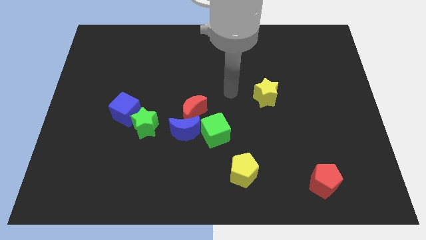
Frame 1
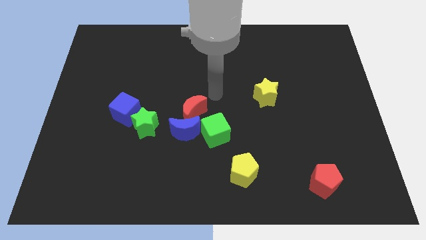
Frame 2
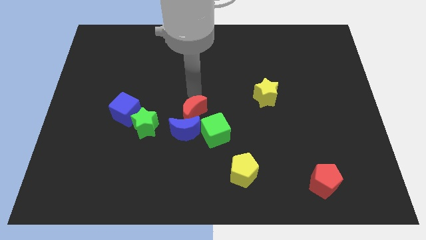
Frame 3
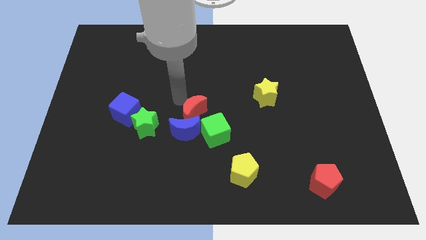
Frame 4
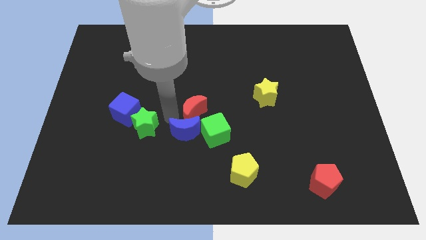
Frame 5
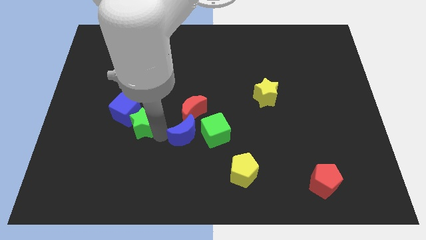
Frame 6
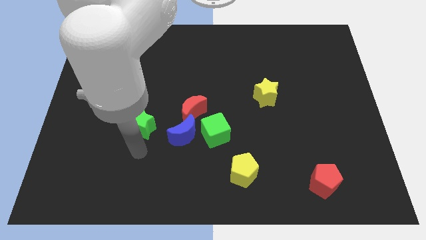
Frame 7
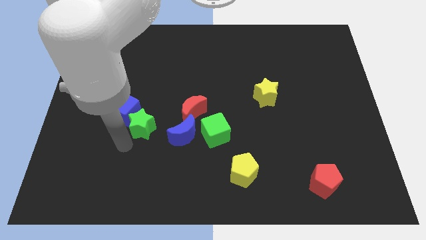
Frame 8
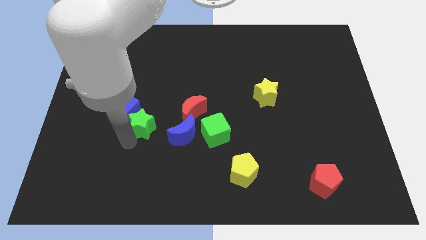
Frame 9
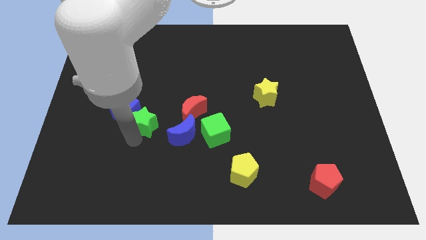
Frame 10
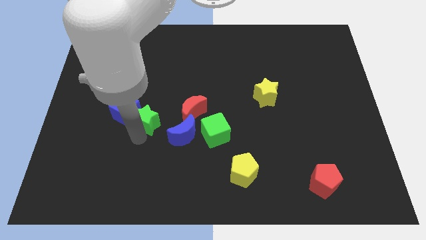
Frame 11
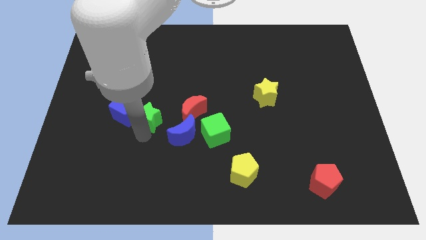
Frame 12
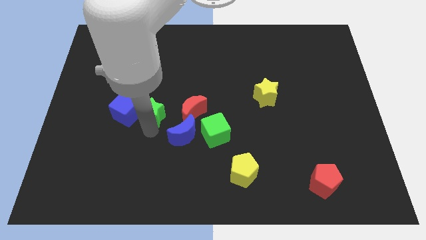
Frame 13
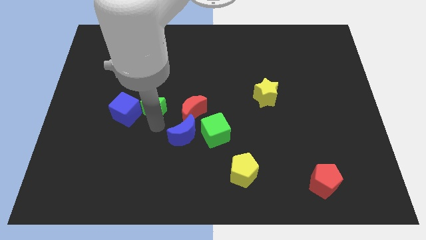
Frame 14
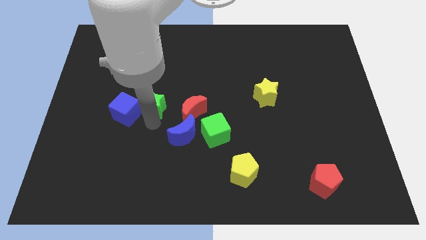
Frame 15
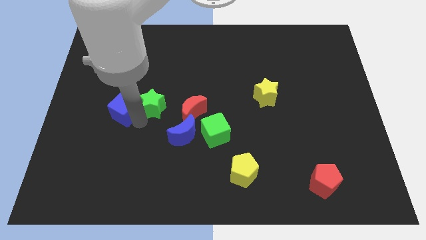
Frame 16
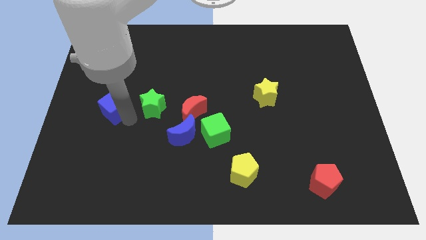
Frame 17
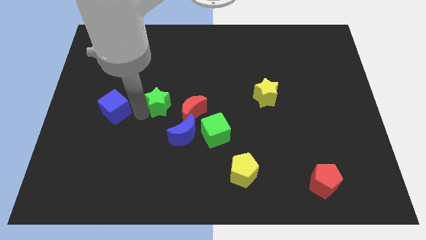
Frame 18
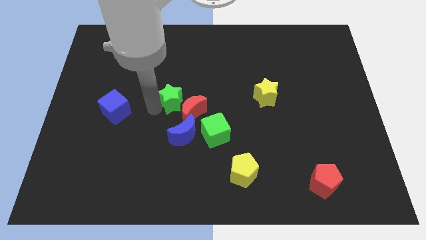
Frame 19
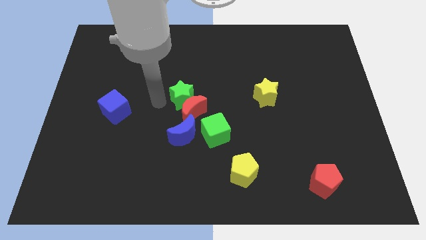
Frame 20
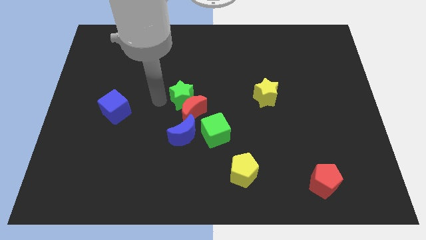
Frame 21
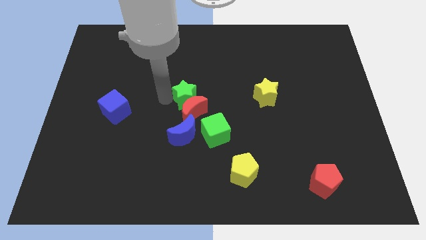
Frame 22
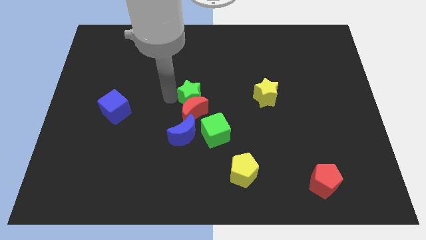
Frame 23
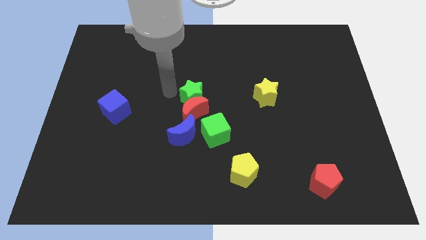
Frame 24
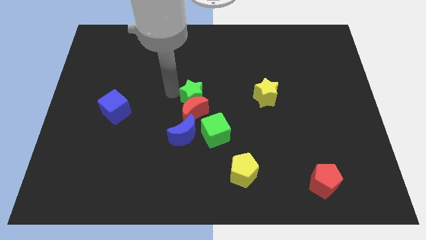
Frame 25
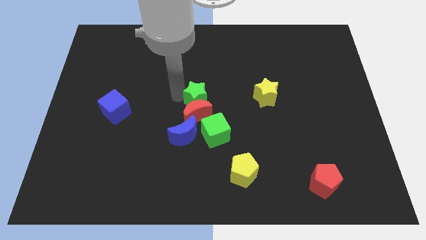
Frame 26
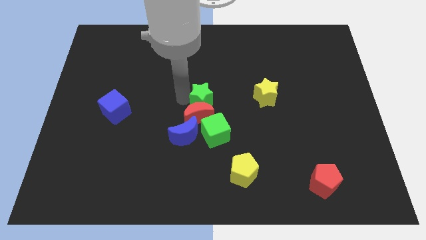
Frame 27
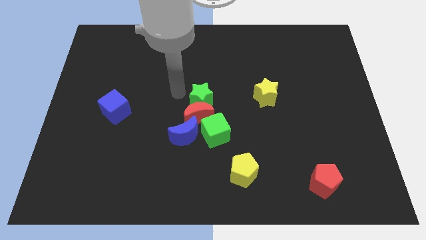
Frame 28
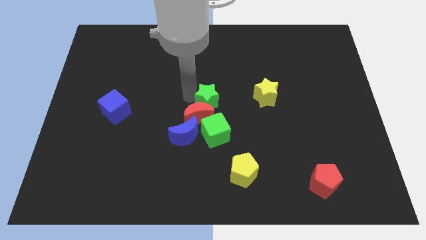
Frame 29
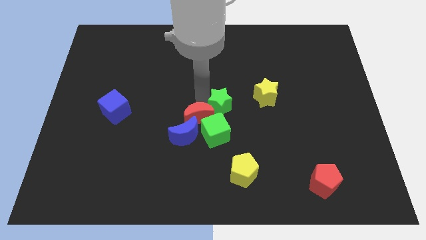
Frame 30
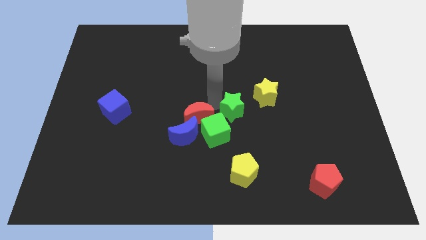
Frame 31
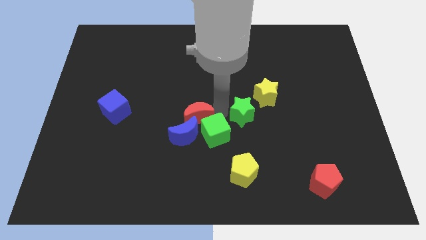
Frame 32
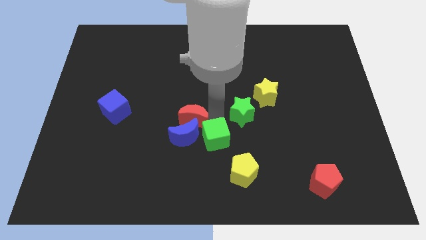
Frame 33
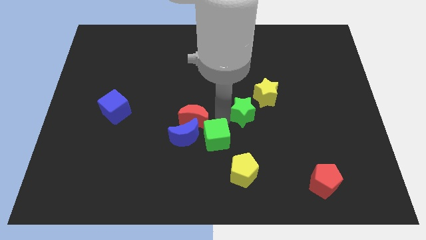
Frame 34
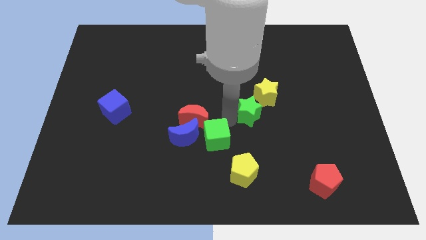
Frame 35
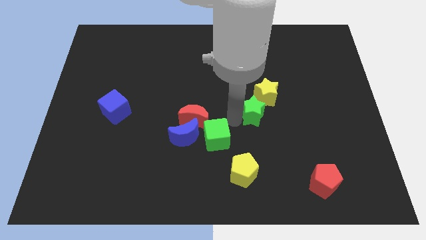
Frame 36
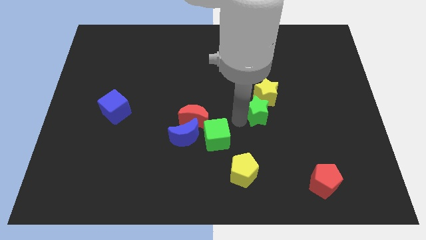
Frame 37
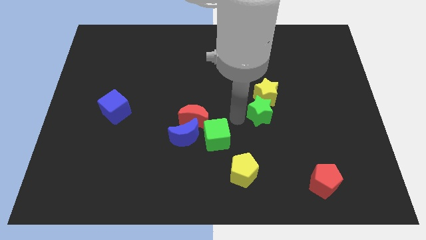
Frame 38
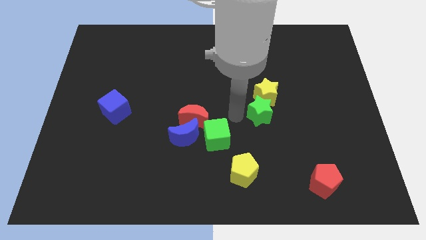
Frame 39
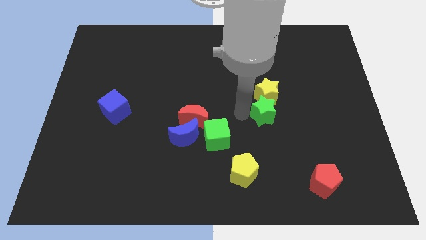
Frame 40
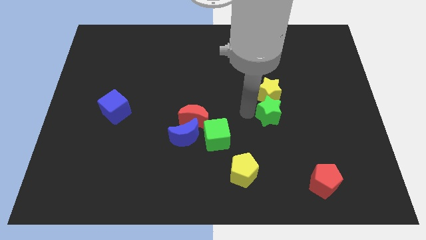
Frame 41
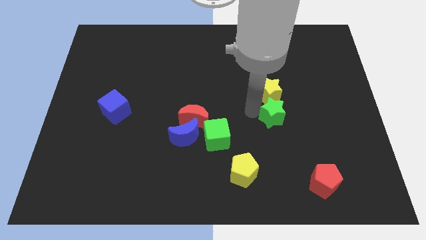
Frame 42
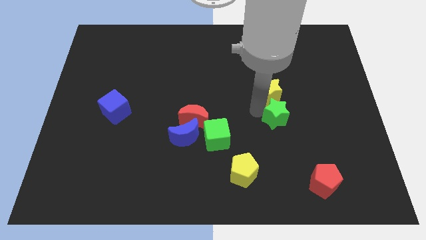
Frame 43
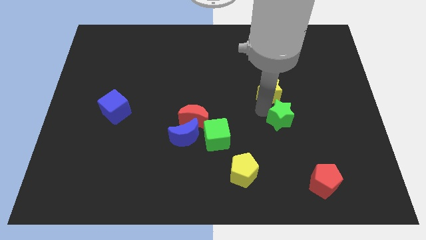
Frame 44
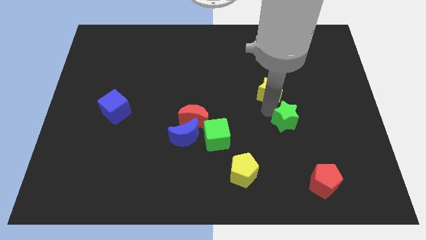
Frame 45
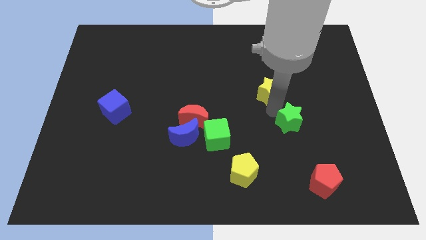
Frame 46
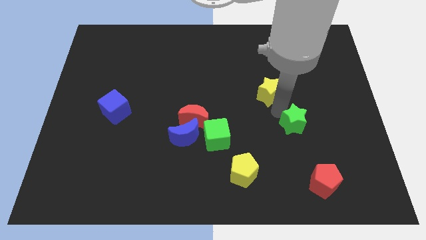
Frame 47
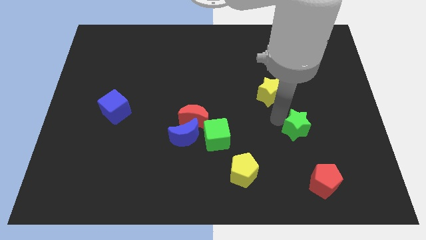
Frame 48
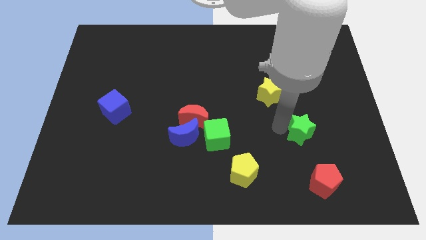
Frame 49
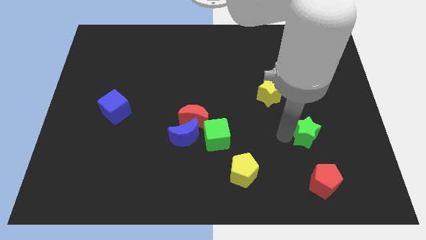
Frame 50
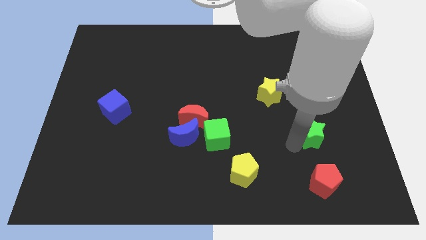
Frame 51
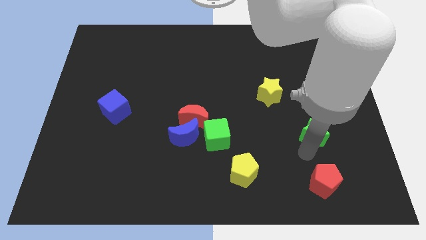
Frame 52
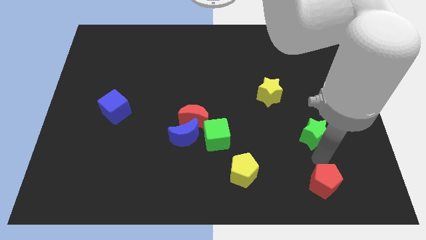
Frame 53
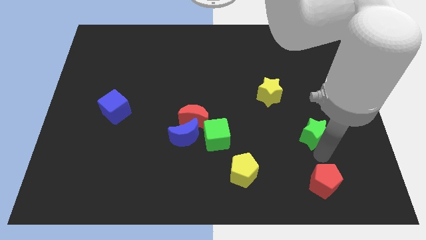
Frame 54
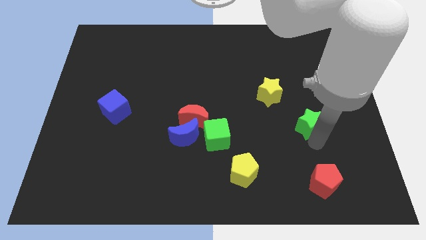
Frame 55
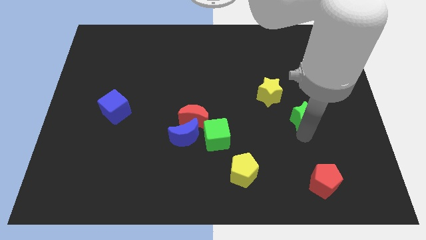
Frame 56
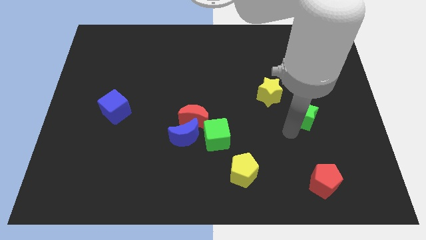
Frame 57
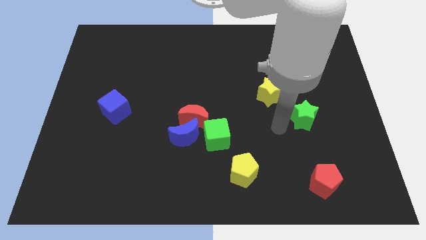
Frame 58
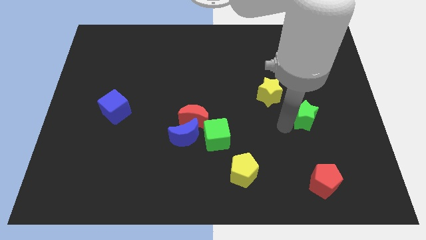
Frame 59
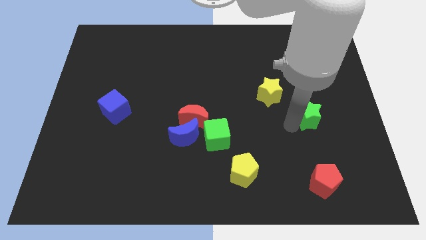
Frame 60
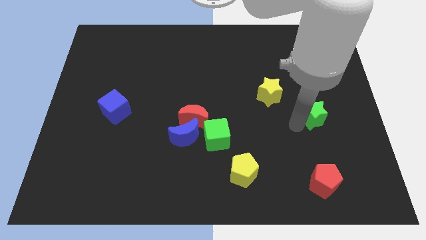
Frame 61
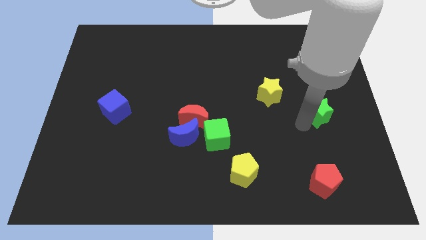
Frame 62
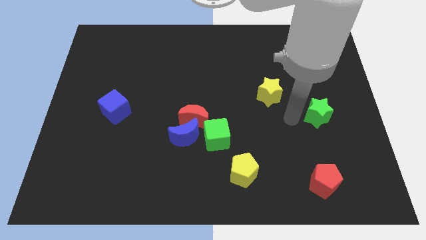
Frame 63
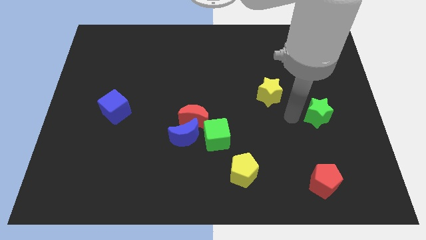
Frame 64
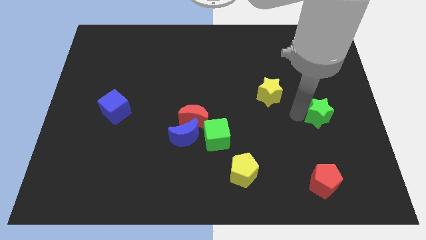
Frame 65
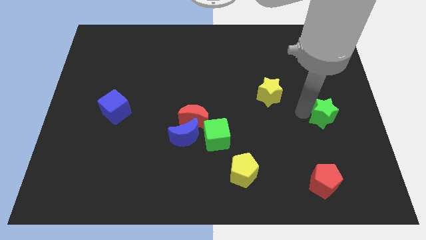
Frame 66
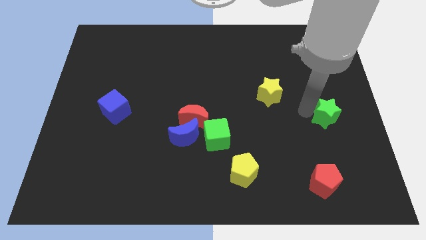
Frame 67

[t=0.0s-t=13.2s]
move the green star to the right side of the board
